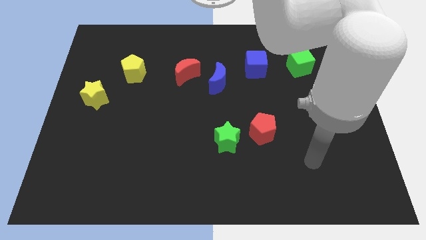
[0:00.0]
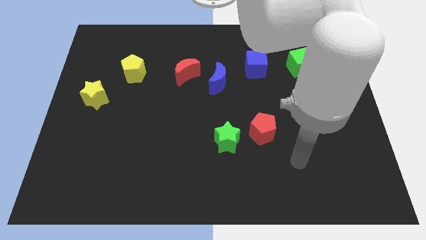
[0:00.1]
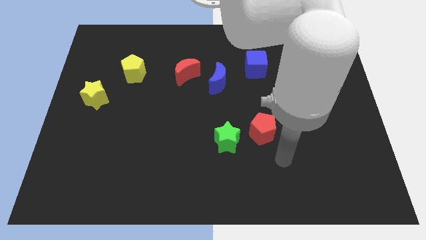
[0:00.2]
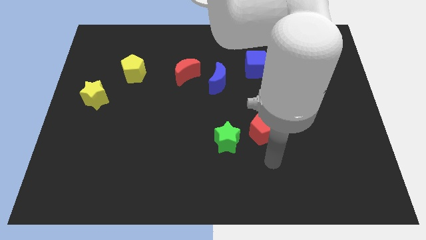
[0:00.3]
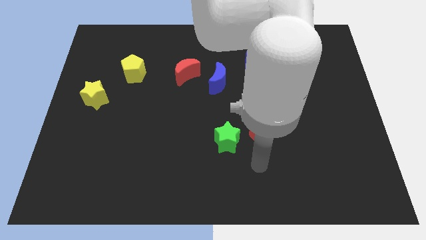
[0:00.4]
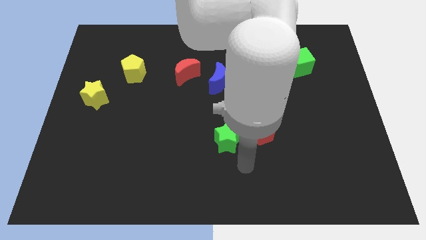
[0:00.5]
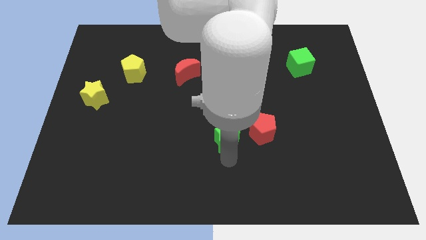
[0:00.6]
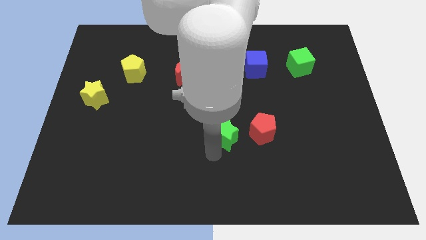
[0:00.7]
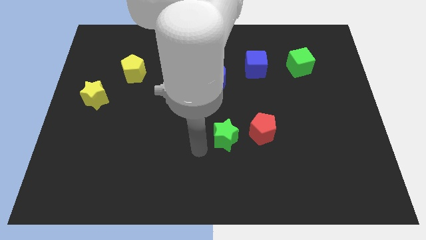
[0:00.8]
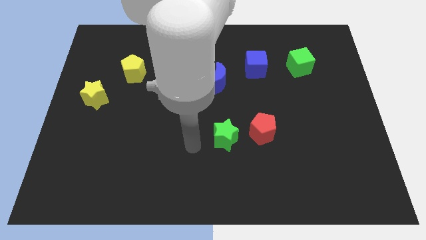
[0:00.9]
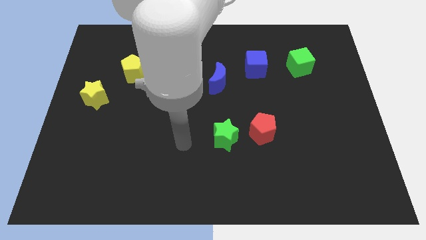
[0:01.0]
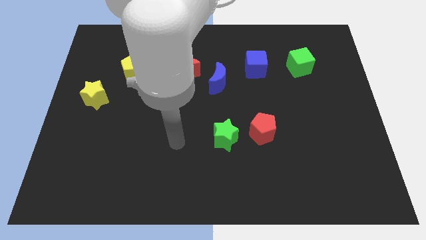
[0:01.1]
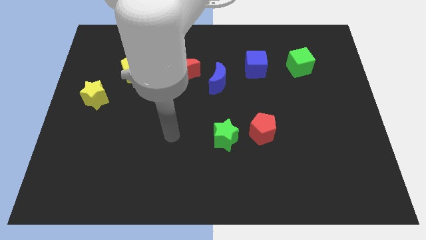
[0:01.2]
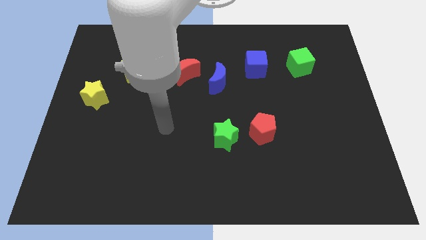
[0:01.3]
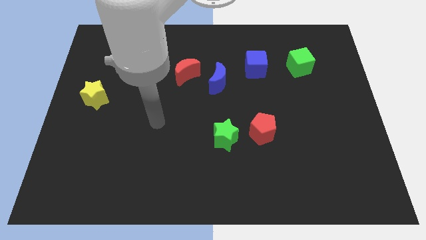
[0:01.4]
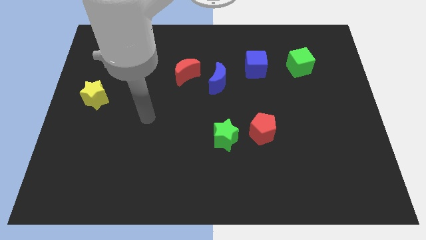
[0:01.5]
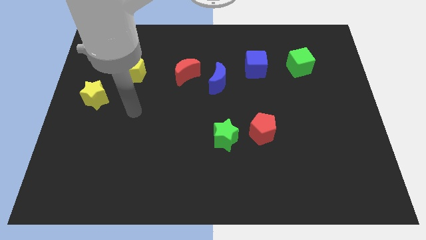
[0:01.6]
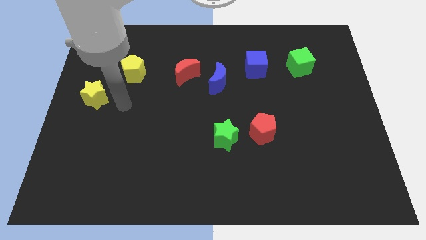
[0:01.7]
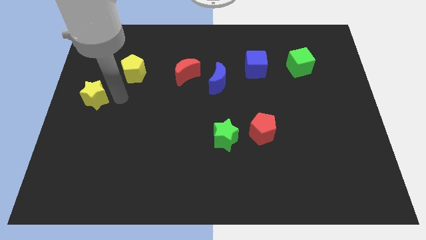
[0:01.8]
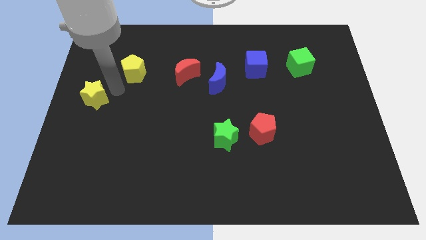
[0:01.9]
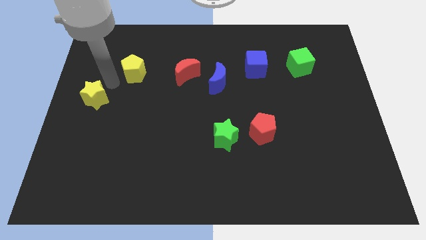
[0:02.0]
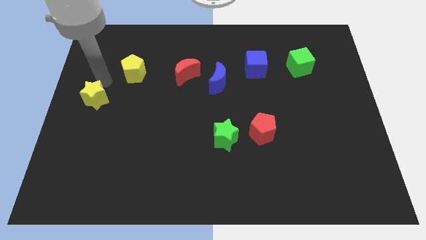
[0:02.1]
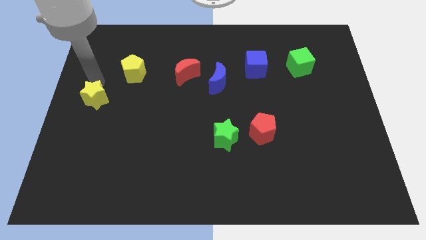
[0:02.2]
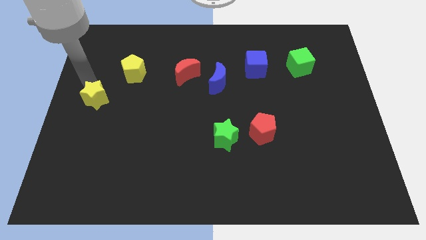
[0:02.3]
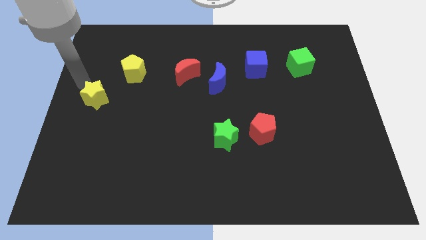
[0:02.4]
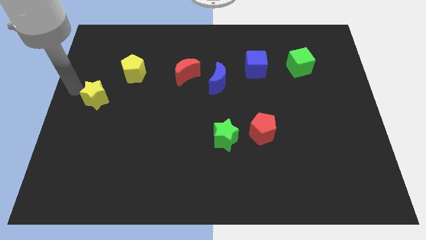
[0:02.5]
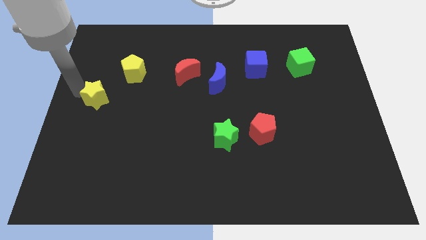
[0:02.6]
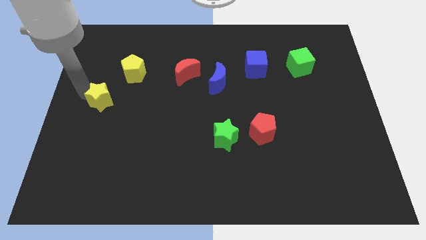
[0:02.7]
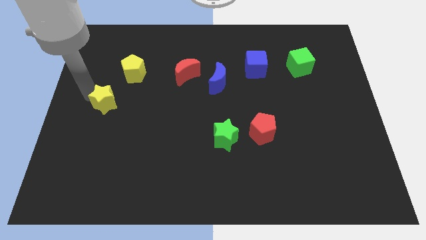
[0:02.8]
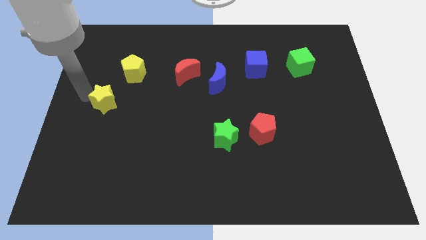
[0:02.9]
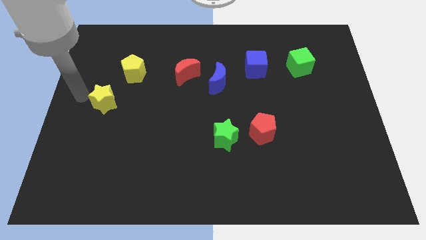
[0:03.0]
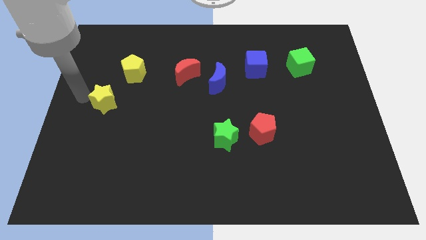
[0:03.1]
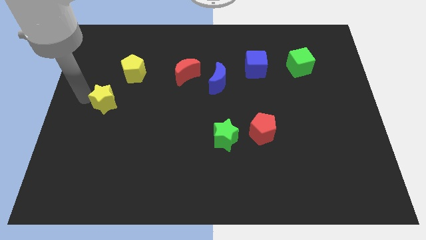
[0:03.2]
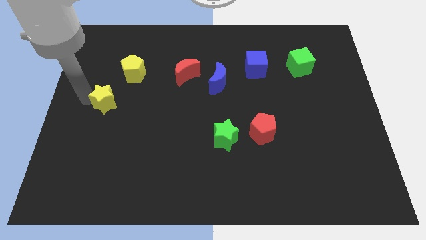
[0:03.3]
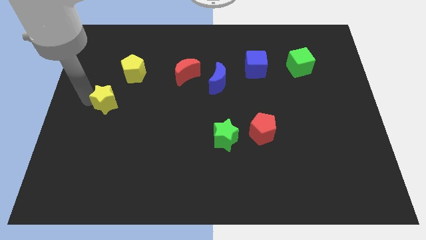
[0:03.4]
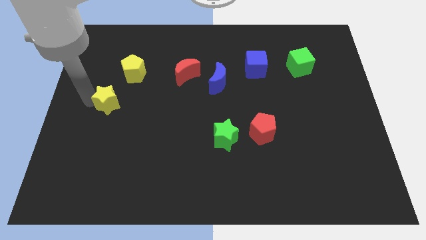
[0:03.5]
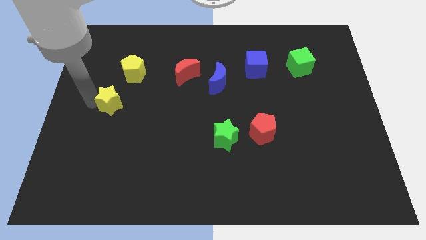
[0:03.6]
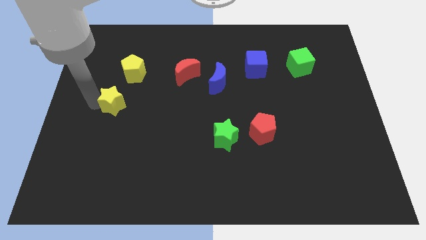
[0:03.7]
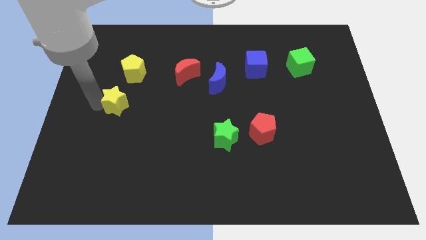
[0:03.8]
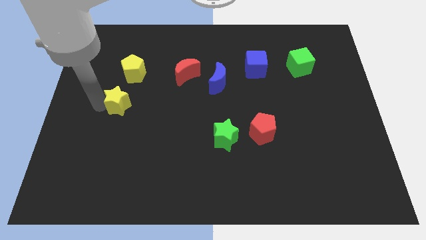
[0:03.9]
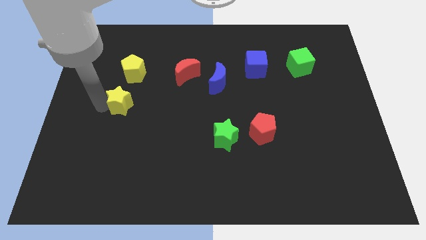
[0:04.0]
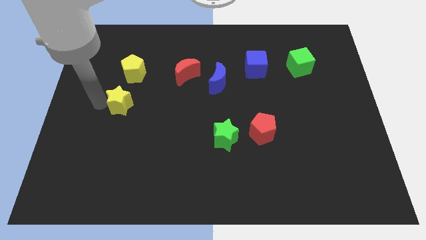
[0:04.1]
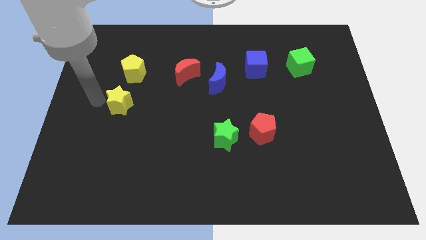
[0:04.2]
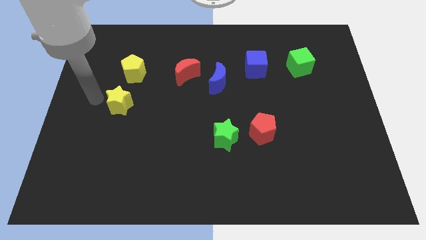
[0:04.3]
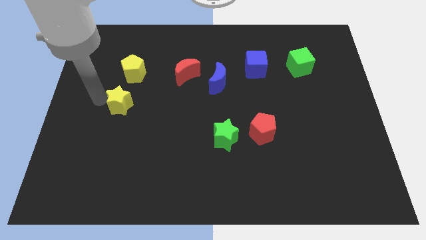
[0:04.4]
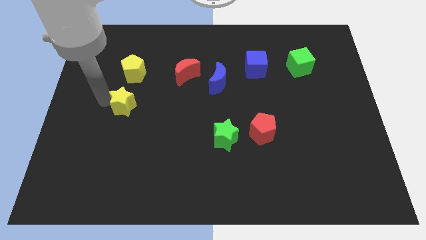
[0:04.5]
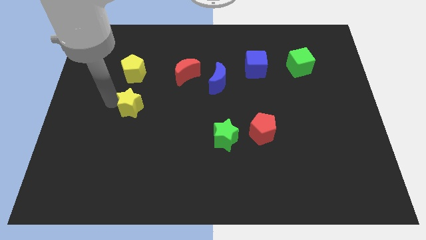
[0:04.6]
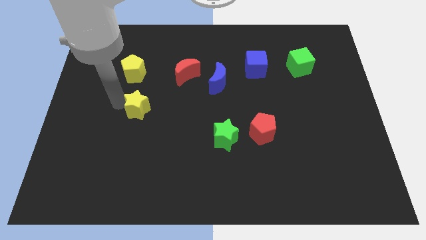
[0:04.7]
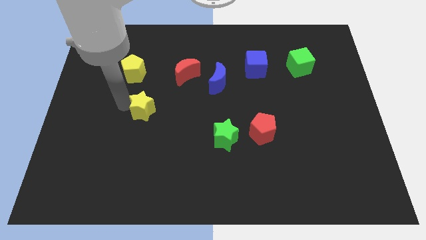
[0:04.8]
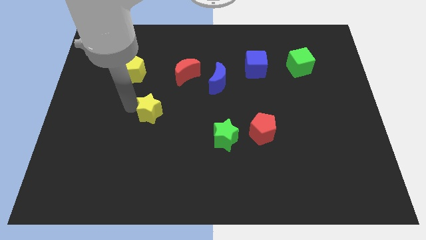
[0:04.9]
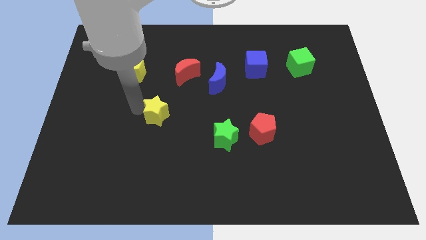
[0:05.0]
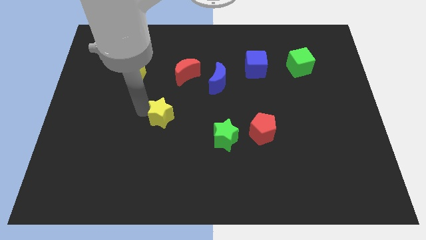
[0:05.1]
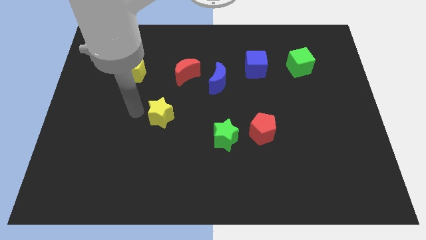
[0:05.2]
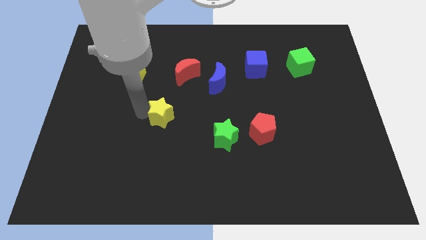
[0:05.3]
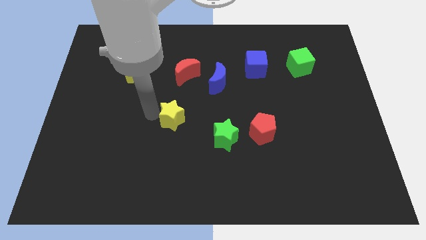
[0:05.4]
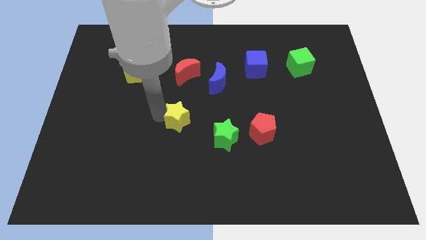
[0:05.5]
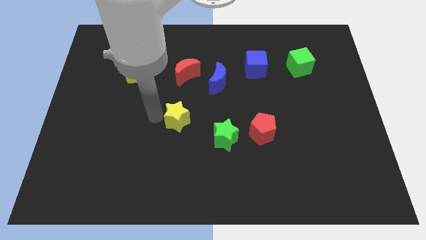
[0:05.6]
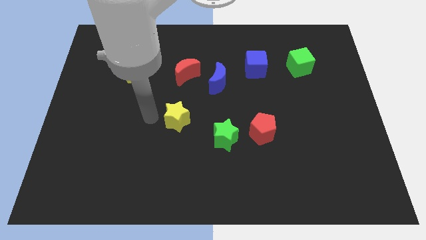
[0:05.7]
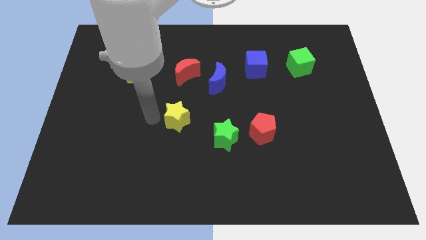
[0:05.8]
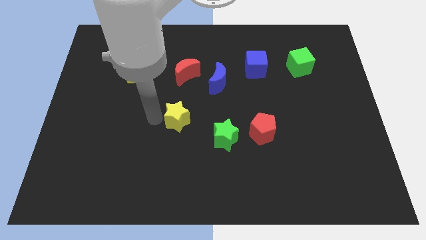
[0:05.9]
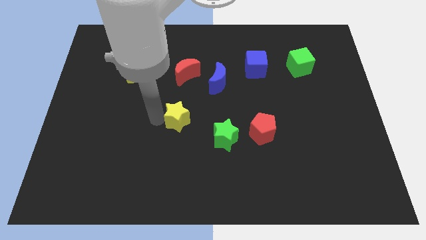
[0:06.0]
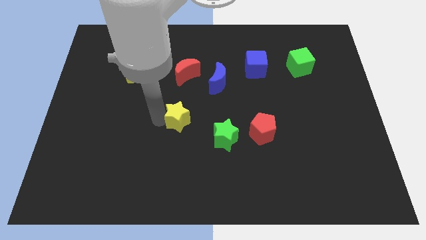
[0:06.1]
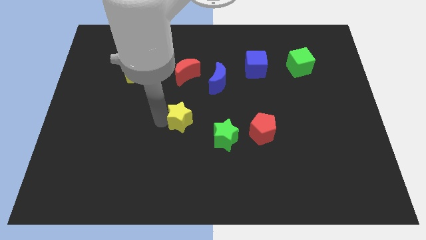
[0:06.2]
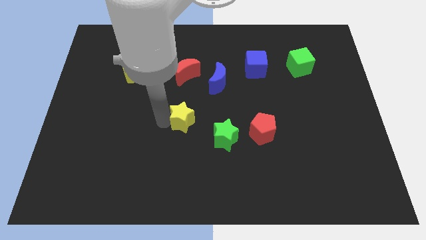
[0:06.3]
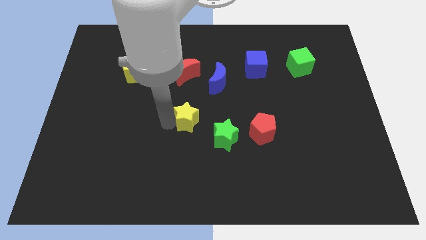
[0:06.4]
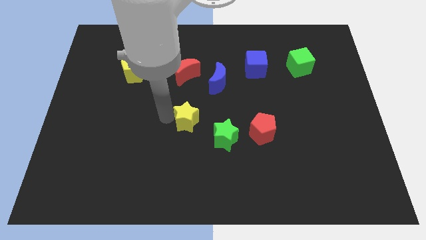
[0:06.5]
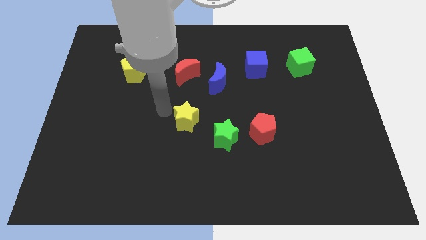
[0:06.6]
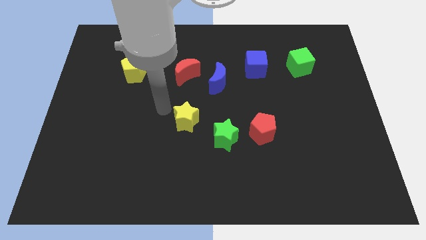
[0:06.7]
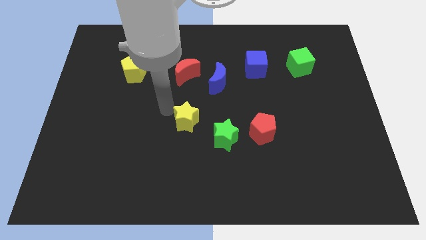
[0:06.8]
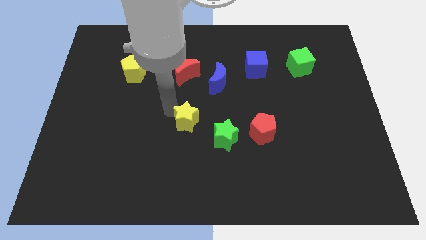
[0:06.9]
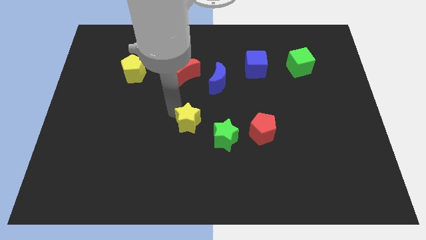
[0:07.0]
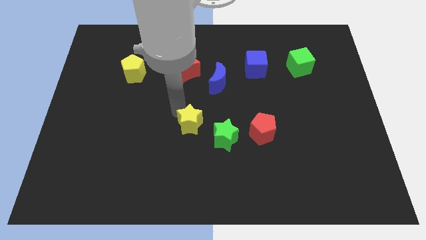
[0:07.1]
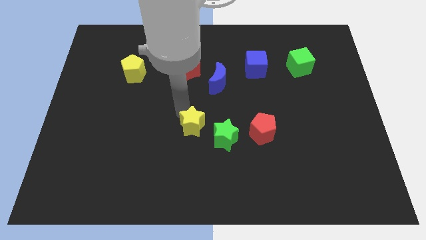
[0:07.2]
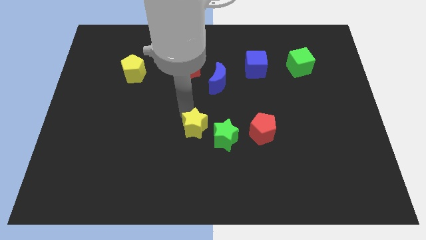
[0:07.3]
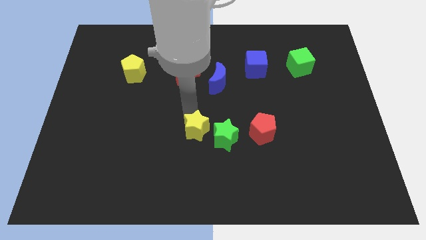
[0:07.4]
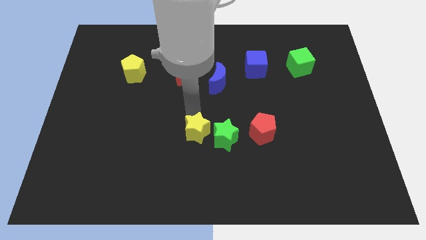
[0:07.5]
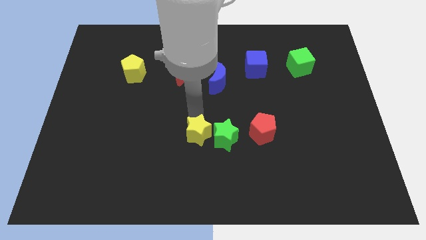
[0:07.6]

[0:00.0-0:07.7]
slide the yellow star next to the green star

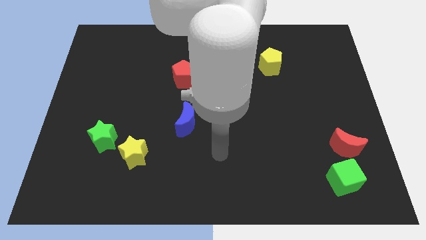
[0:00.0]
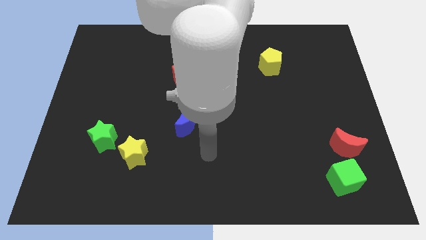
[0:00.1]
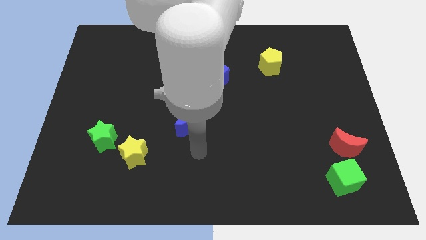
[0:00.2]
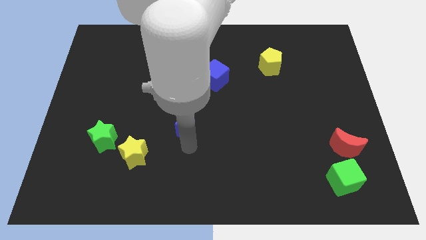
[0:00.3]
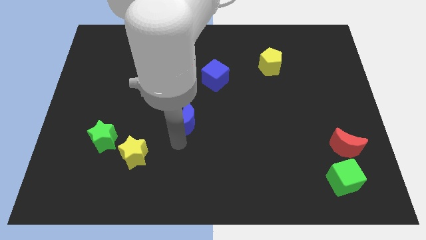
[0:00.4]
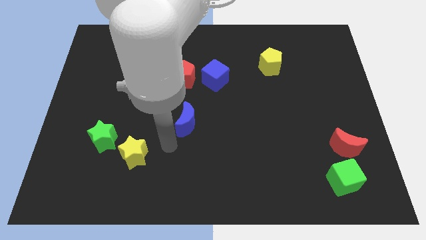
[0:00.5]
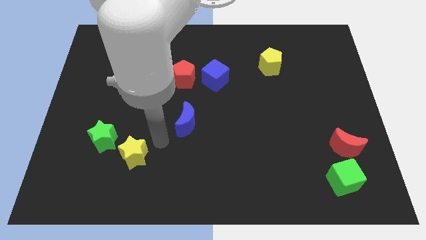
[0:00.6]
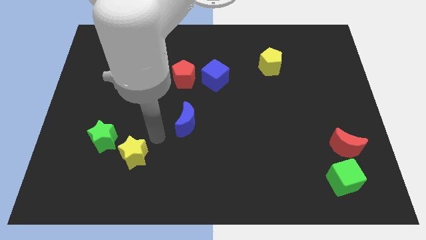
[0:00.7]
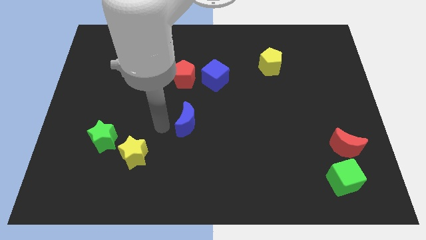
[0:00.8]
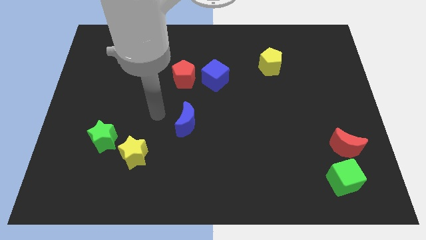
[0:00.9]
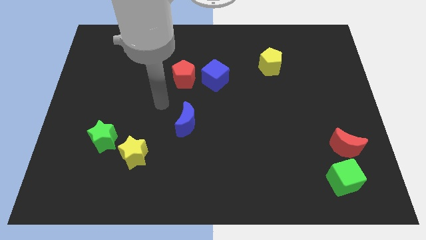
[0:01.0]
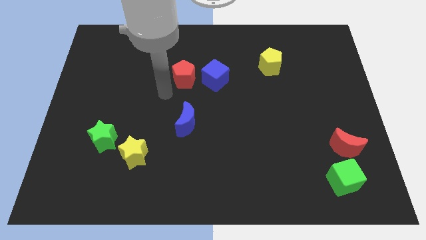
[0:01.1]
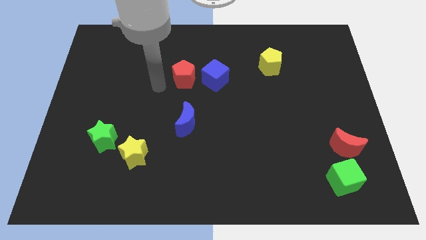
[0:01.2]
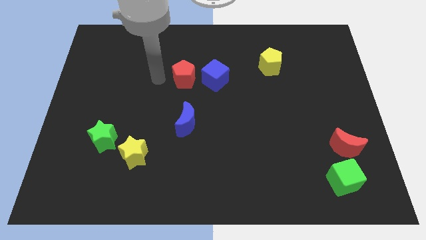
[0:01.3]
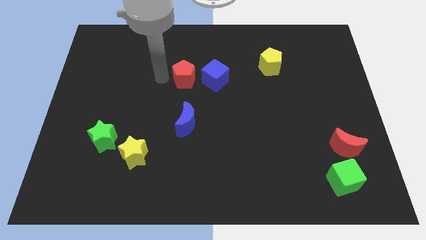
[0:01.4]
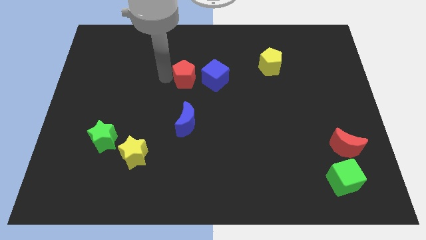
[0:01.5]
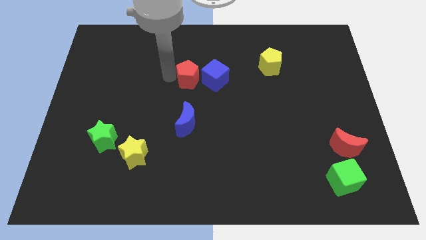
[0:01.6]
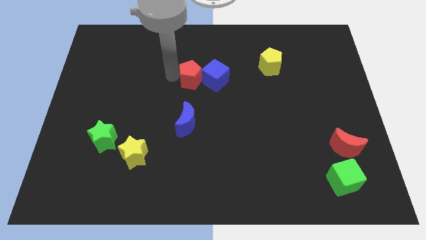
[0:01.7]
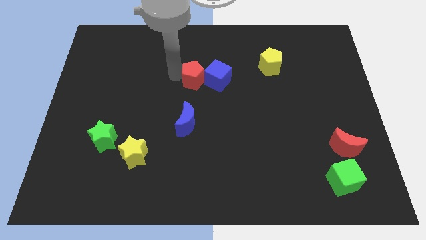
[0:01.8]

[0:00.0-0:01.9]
move the red pentagon close to the blue cube
